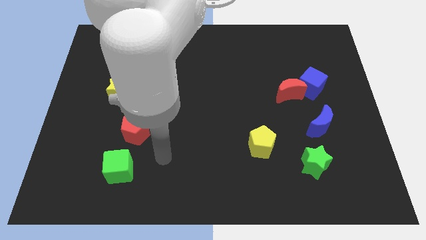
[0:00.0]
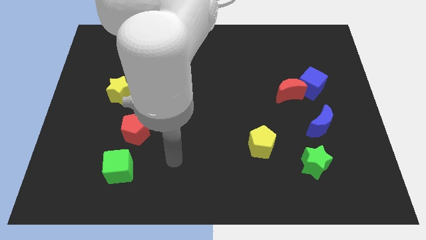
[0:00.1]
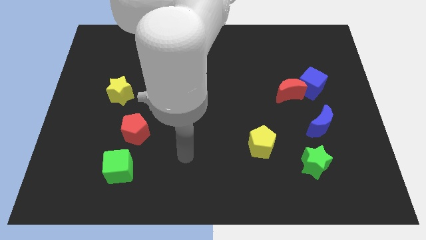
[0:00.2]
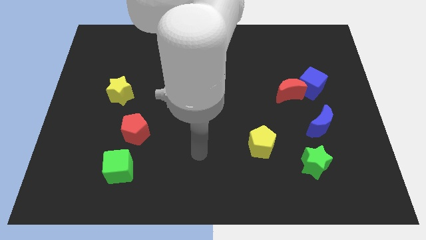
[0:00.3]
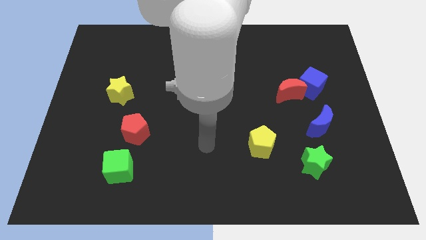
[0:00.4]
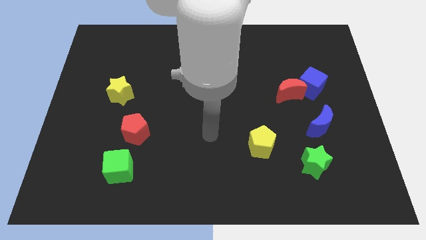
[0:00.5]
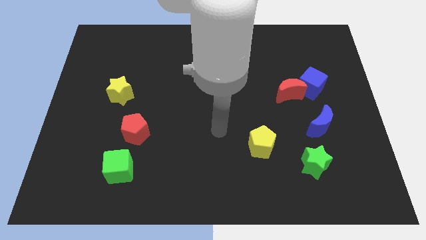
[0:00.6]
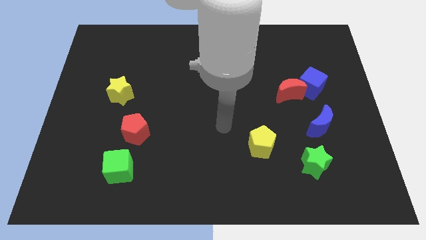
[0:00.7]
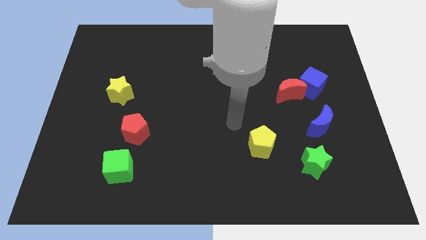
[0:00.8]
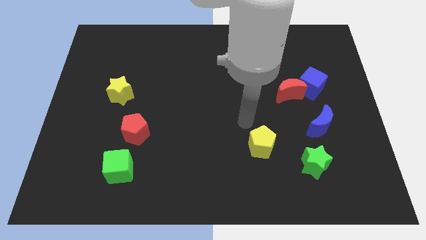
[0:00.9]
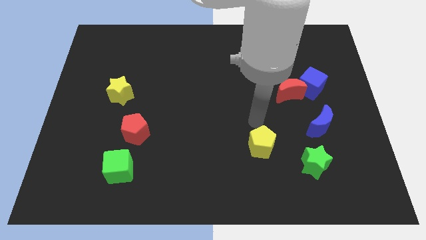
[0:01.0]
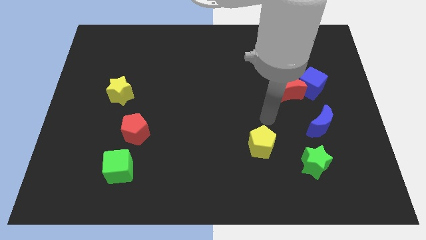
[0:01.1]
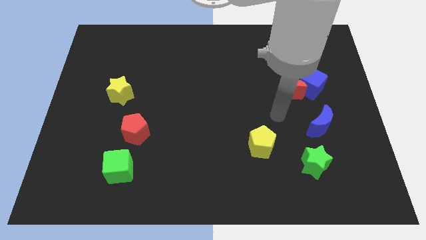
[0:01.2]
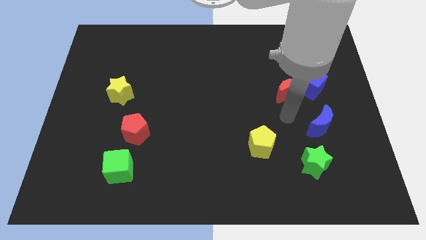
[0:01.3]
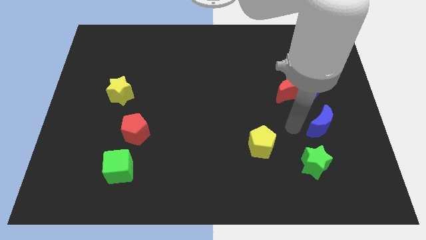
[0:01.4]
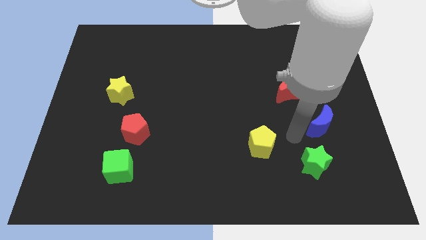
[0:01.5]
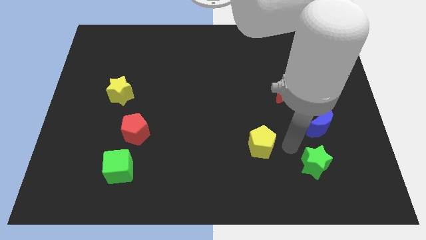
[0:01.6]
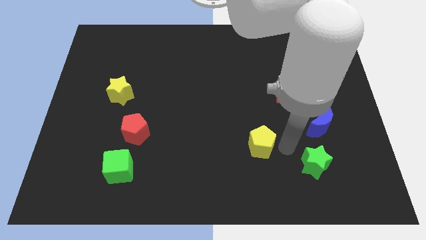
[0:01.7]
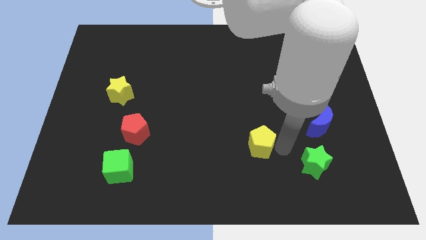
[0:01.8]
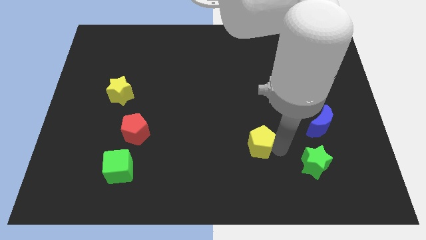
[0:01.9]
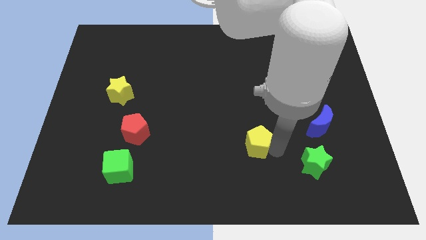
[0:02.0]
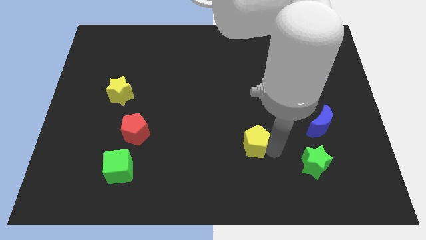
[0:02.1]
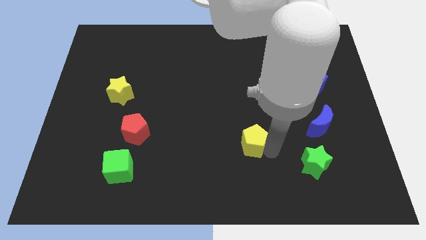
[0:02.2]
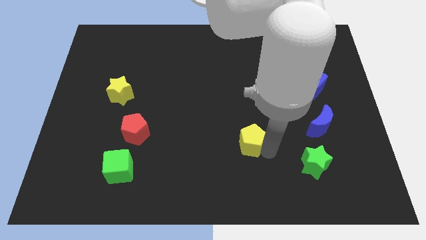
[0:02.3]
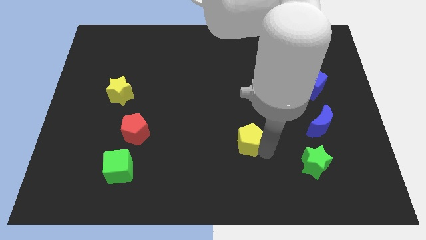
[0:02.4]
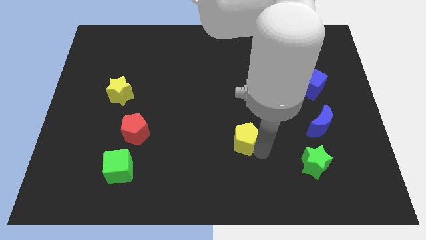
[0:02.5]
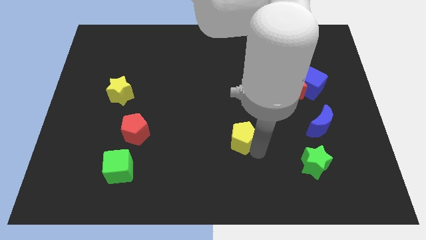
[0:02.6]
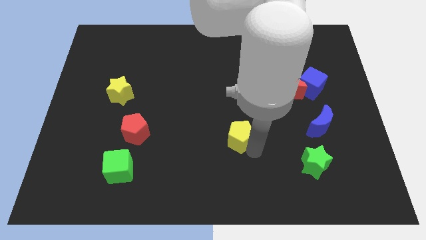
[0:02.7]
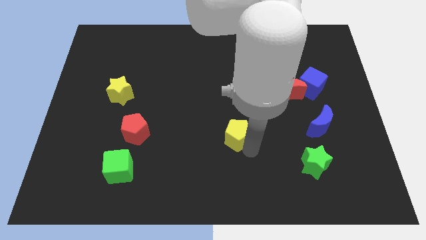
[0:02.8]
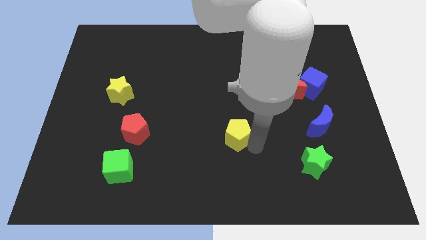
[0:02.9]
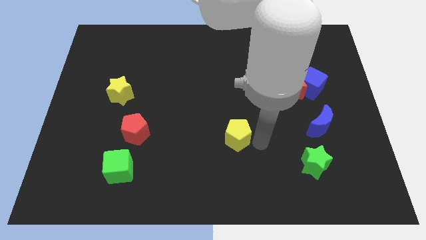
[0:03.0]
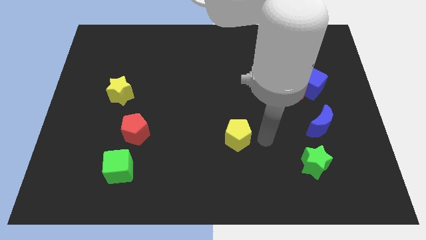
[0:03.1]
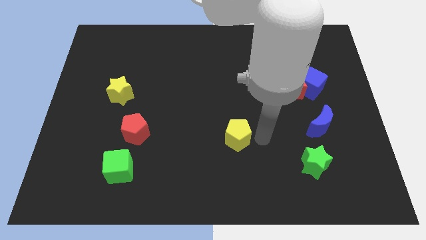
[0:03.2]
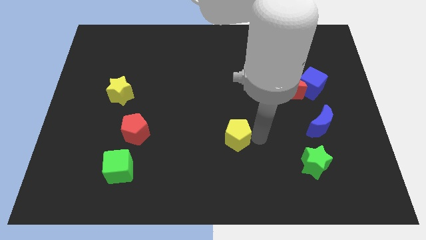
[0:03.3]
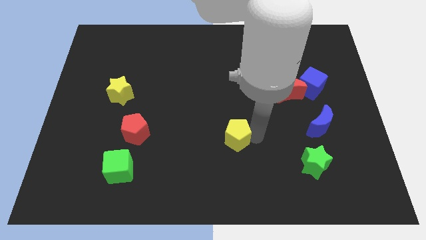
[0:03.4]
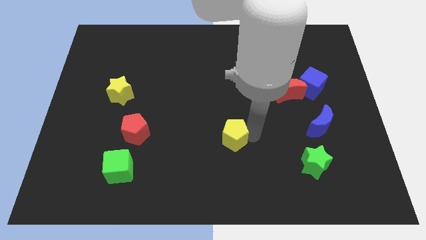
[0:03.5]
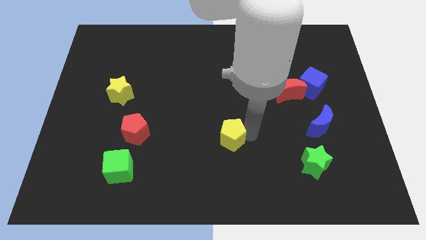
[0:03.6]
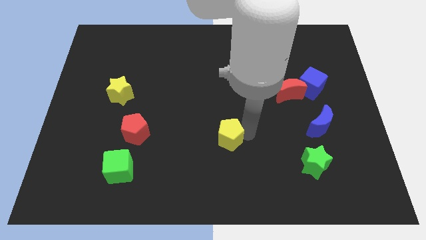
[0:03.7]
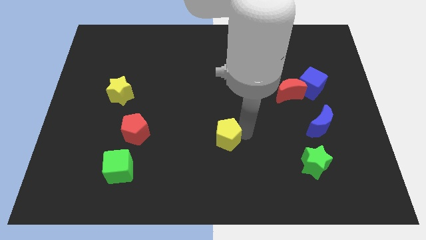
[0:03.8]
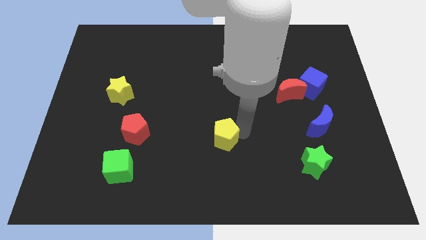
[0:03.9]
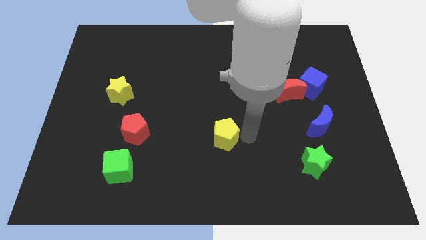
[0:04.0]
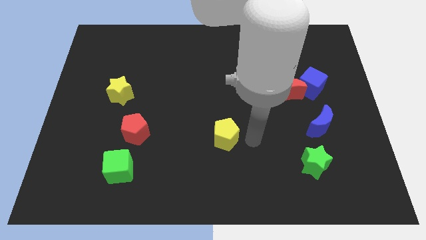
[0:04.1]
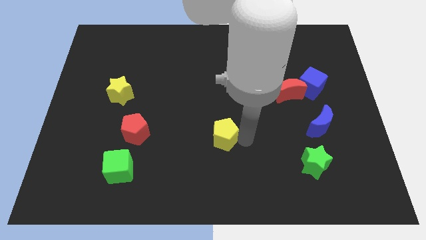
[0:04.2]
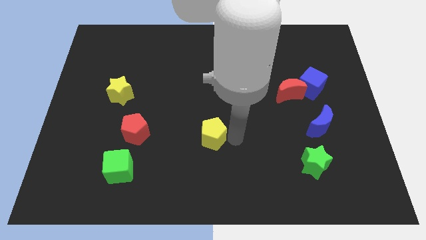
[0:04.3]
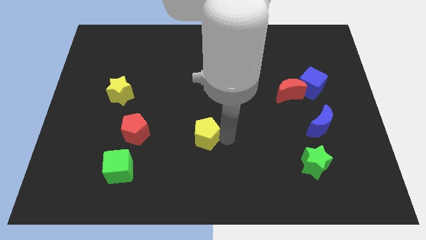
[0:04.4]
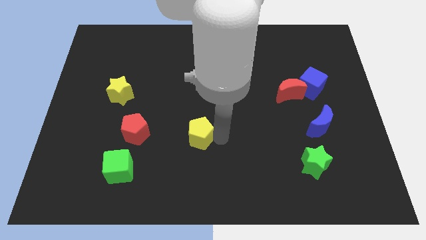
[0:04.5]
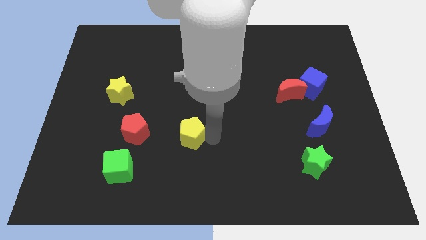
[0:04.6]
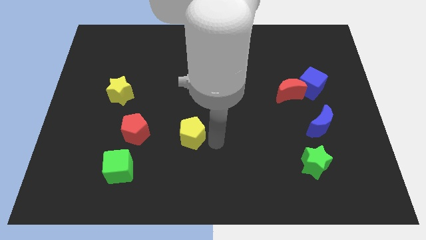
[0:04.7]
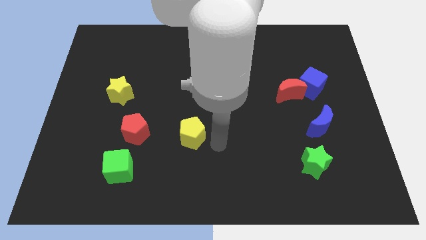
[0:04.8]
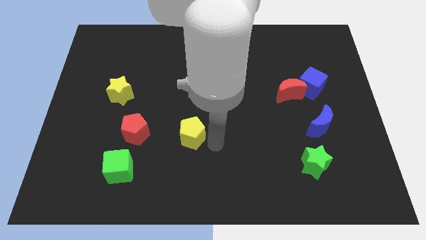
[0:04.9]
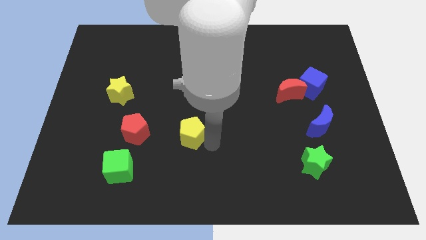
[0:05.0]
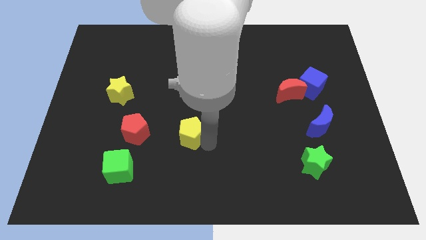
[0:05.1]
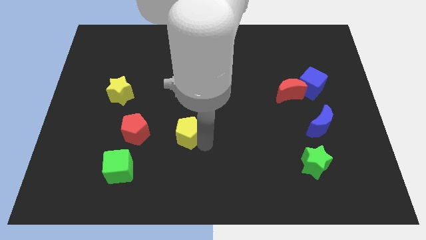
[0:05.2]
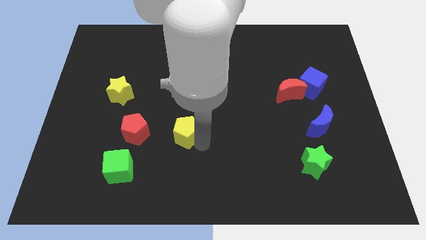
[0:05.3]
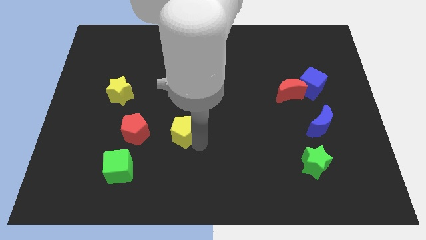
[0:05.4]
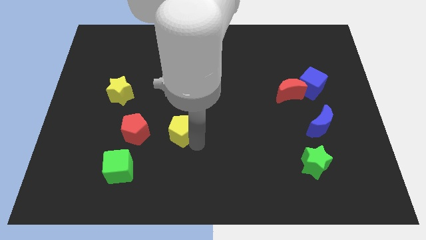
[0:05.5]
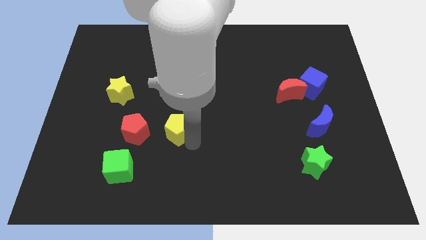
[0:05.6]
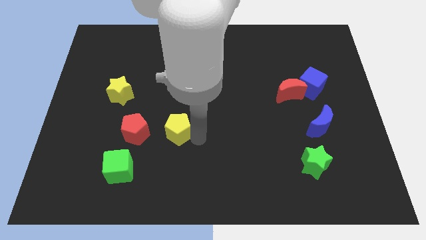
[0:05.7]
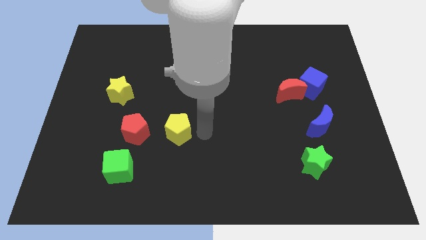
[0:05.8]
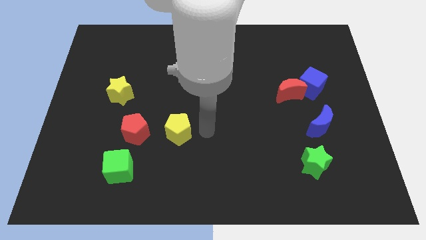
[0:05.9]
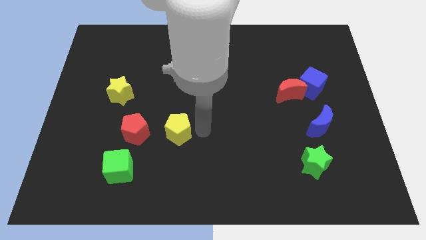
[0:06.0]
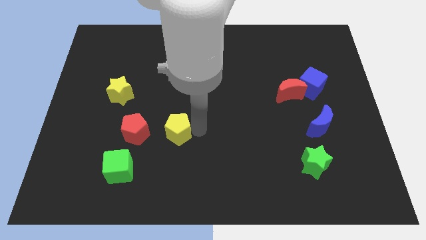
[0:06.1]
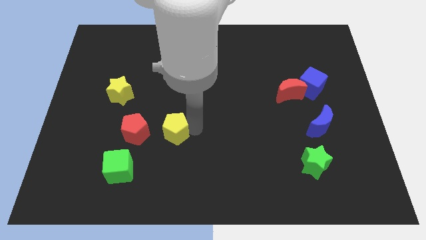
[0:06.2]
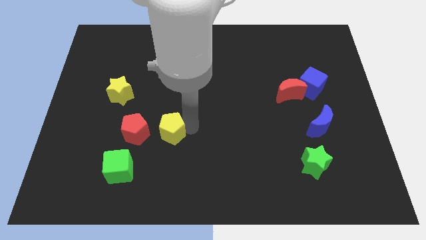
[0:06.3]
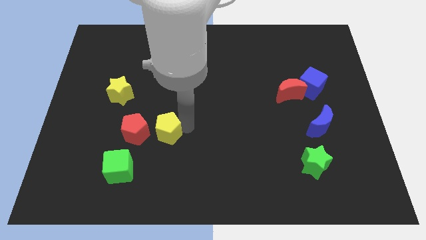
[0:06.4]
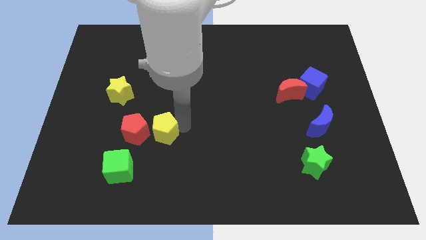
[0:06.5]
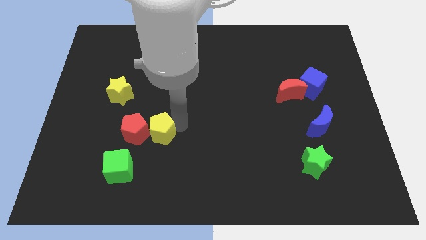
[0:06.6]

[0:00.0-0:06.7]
put the yellow pentagon next to the red pentagon
